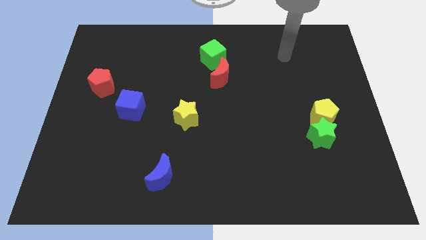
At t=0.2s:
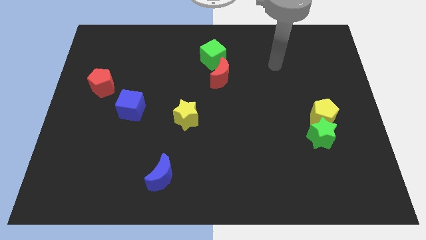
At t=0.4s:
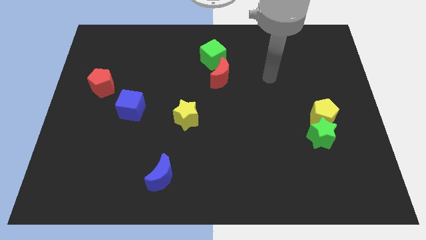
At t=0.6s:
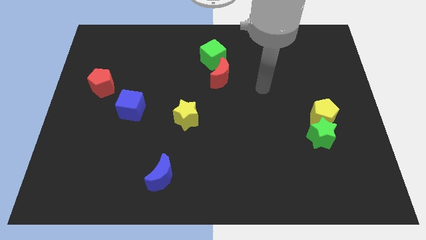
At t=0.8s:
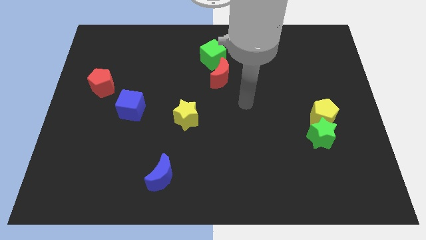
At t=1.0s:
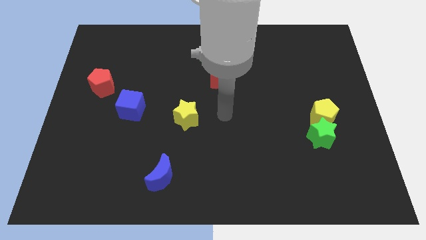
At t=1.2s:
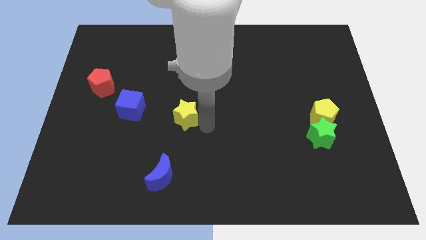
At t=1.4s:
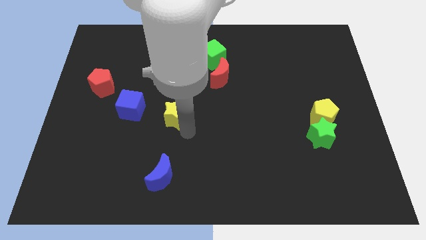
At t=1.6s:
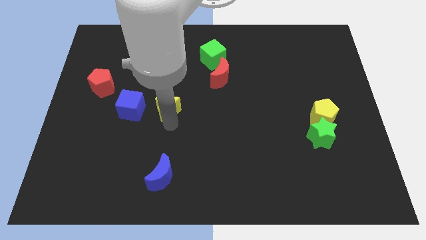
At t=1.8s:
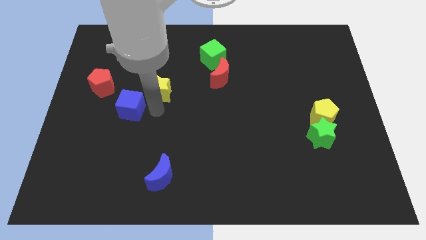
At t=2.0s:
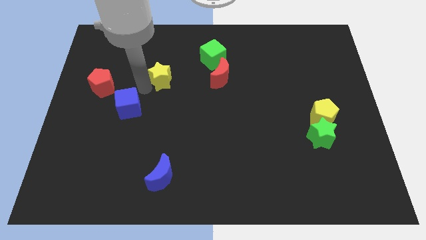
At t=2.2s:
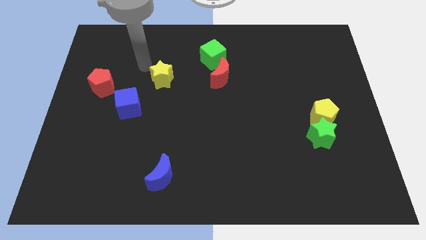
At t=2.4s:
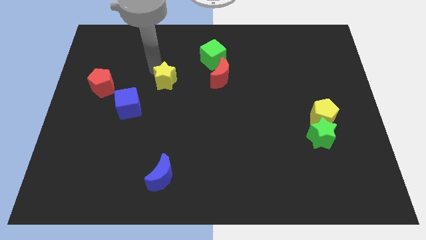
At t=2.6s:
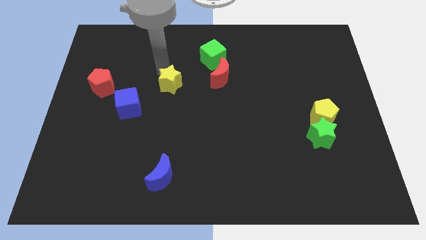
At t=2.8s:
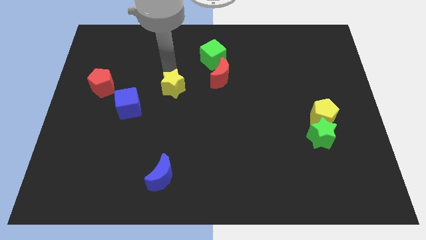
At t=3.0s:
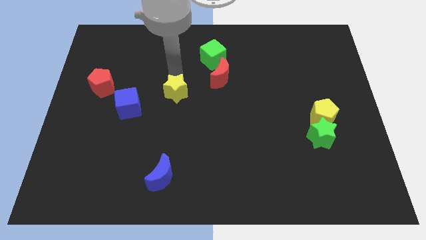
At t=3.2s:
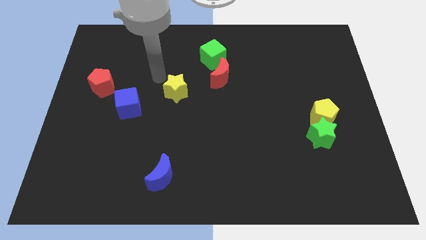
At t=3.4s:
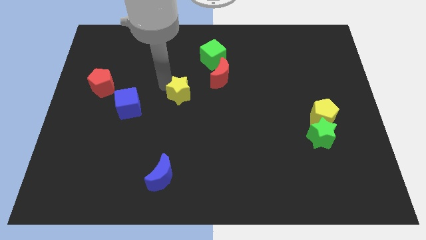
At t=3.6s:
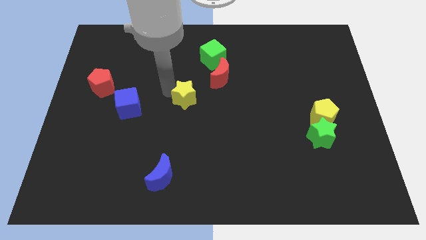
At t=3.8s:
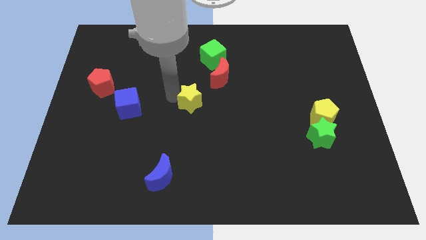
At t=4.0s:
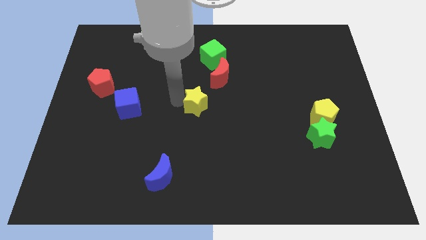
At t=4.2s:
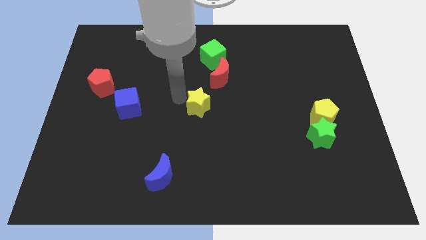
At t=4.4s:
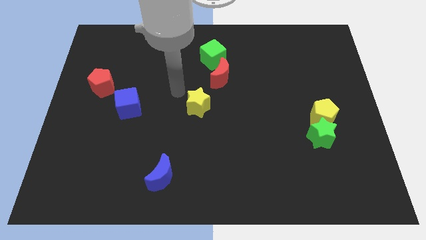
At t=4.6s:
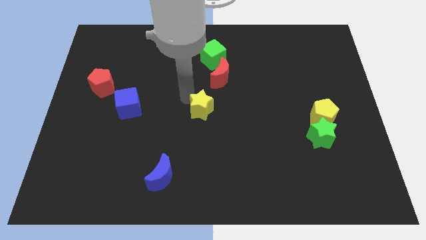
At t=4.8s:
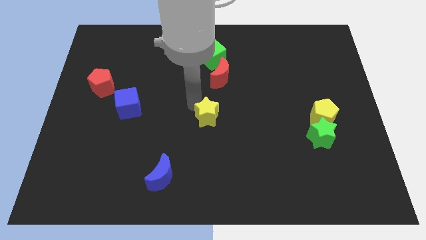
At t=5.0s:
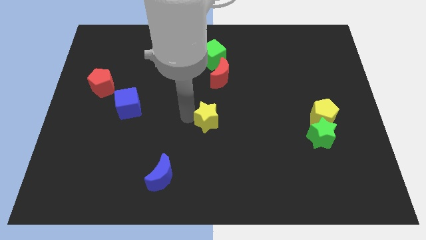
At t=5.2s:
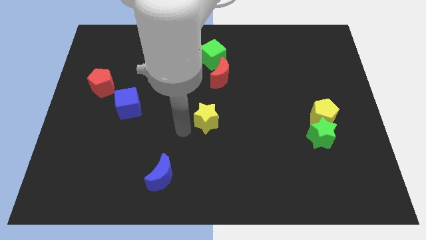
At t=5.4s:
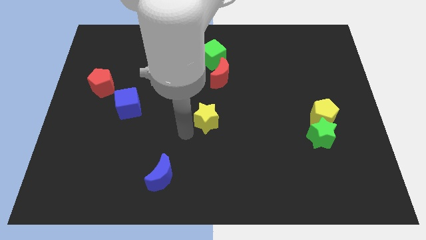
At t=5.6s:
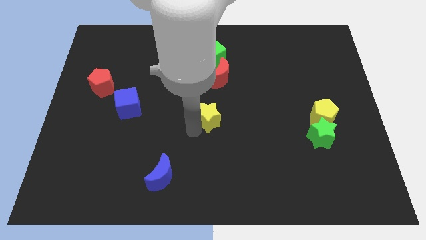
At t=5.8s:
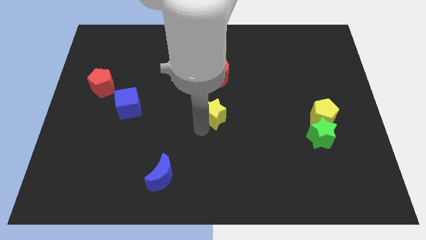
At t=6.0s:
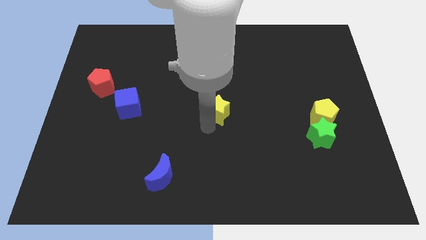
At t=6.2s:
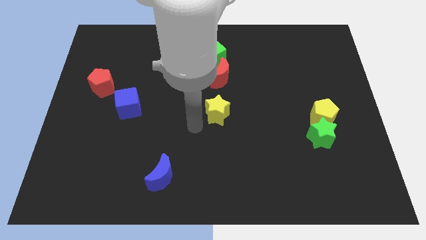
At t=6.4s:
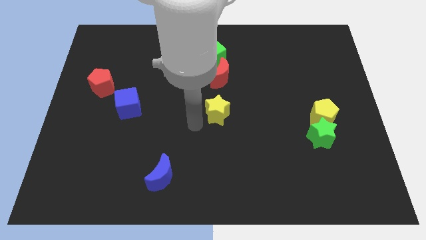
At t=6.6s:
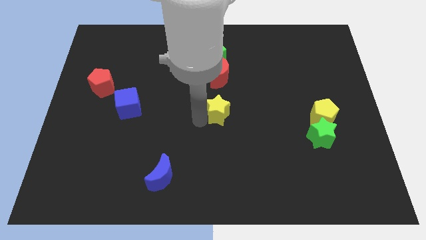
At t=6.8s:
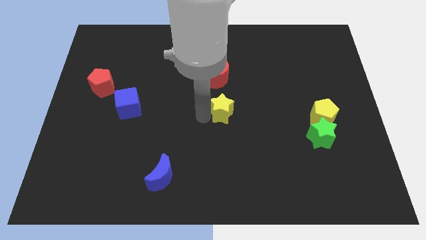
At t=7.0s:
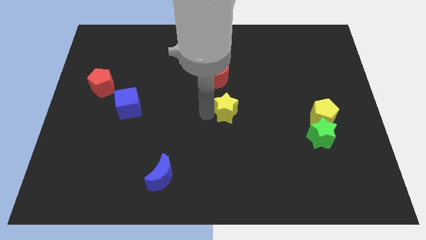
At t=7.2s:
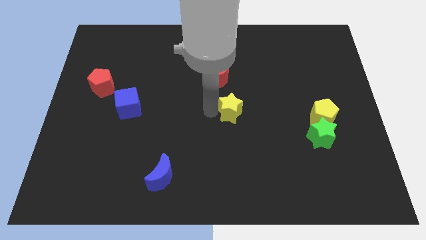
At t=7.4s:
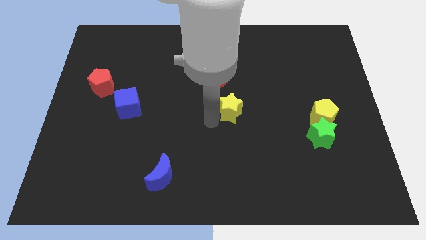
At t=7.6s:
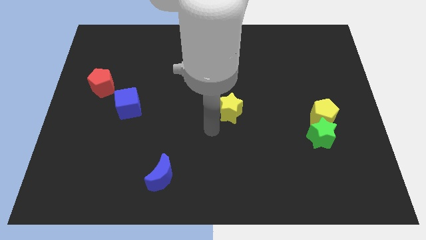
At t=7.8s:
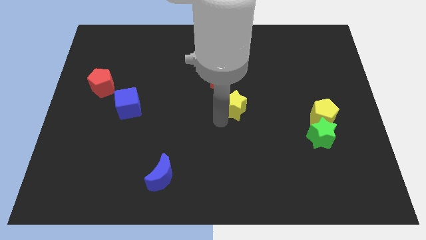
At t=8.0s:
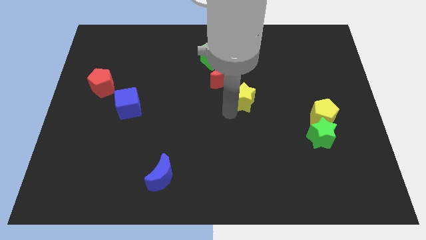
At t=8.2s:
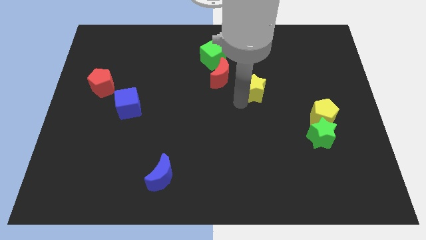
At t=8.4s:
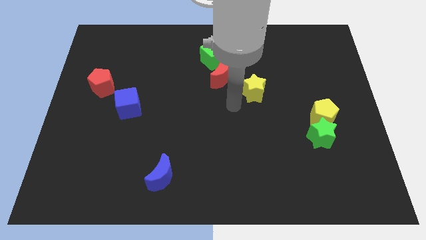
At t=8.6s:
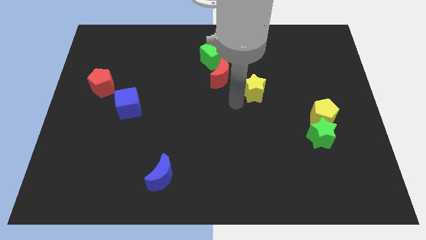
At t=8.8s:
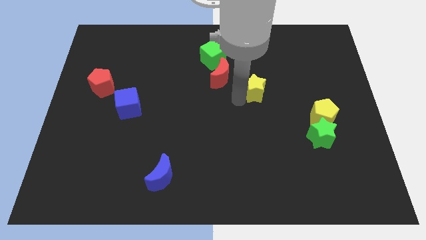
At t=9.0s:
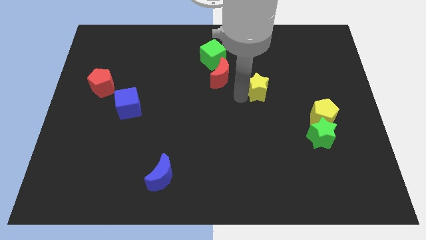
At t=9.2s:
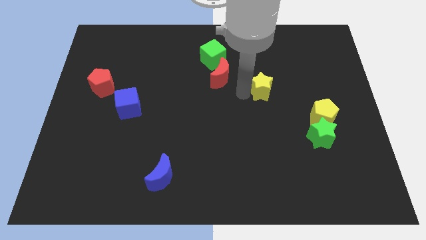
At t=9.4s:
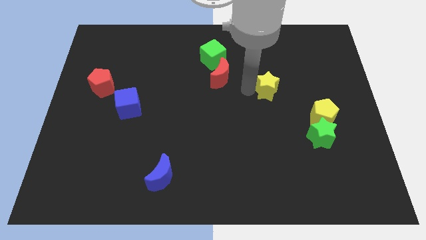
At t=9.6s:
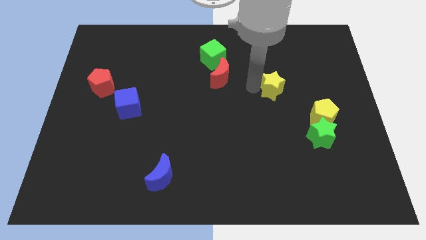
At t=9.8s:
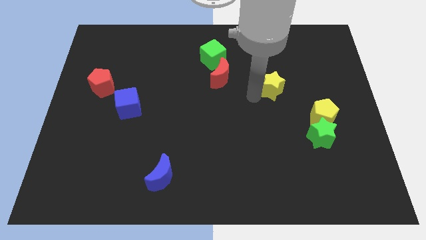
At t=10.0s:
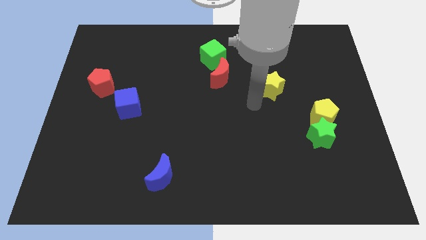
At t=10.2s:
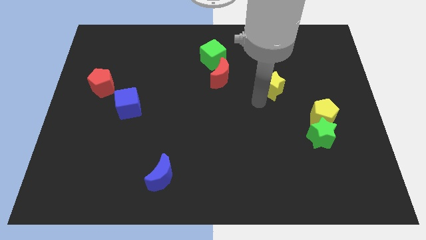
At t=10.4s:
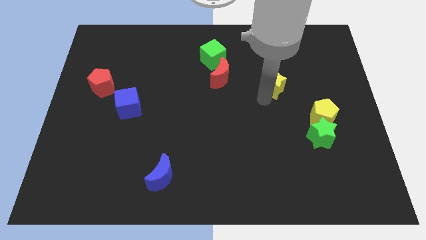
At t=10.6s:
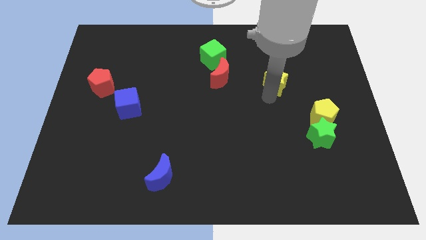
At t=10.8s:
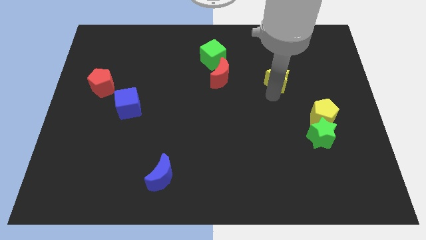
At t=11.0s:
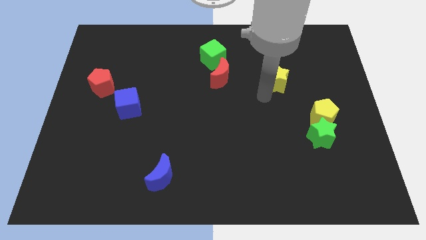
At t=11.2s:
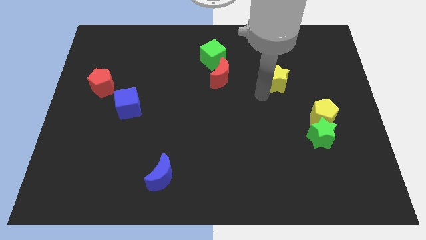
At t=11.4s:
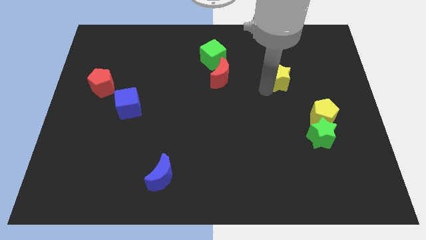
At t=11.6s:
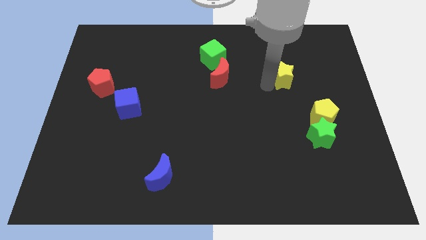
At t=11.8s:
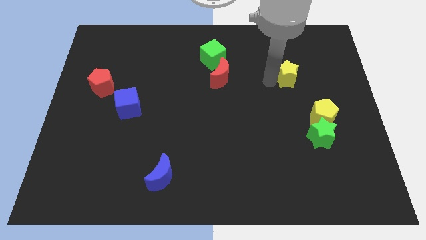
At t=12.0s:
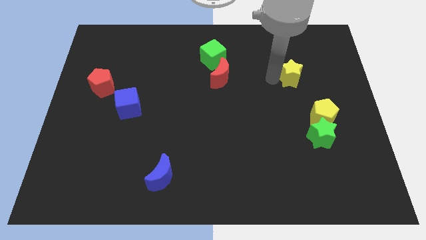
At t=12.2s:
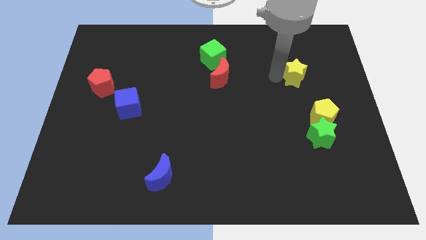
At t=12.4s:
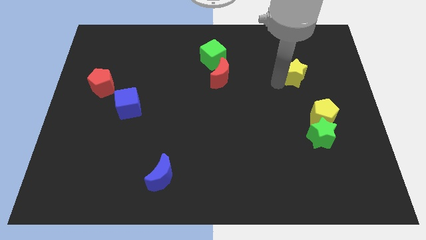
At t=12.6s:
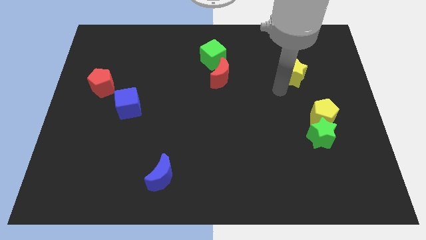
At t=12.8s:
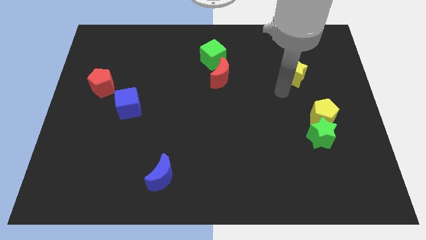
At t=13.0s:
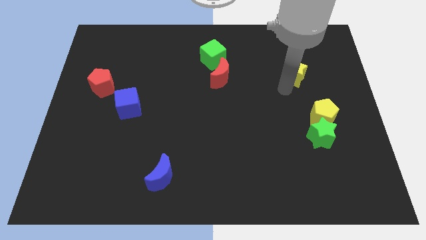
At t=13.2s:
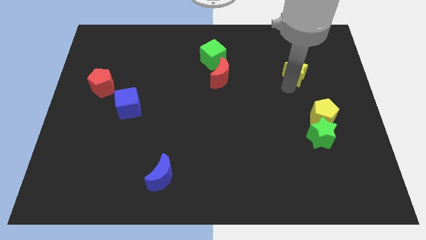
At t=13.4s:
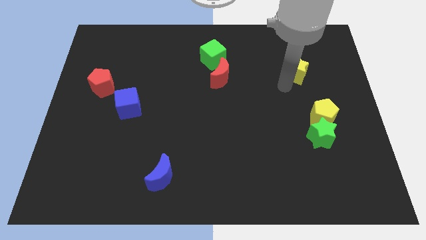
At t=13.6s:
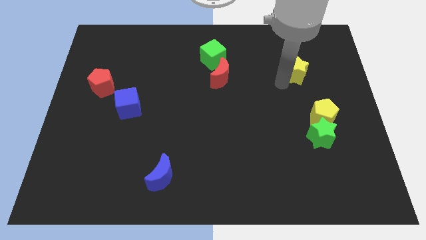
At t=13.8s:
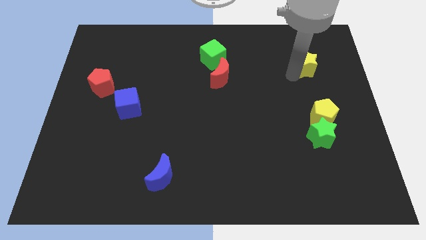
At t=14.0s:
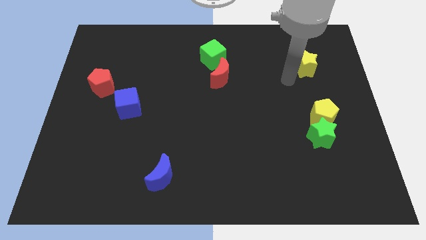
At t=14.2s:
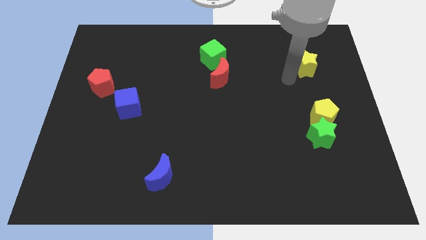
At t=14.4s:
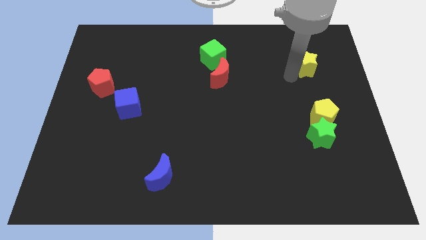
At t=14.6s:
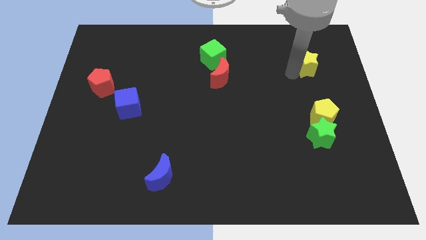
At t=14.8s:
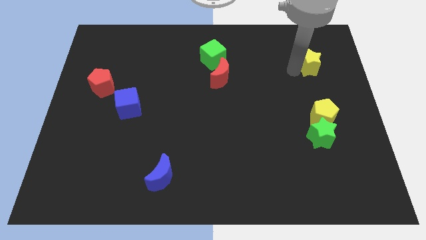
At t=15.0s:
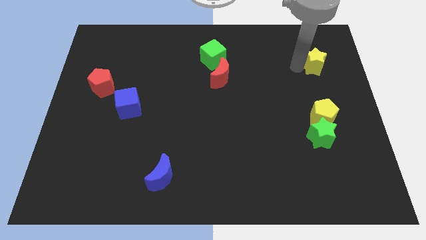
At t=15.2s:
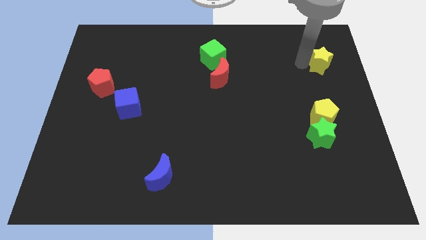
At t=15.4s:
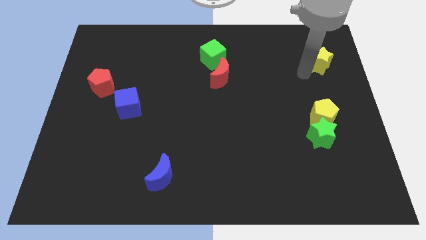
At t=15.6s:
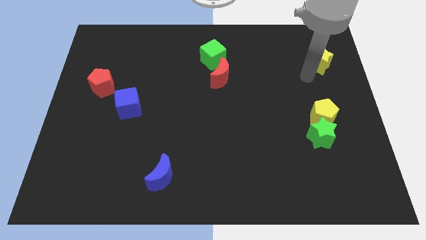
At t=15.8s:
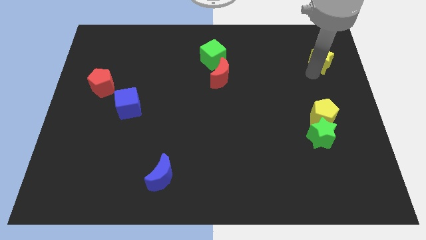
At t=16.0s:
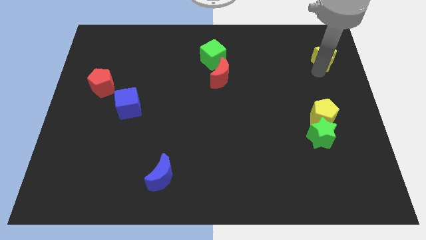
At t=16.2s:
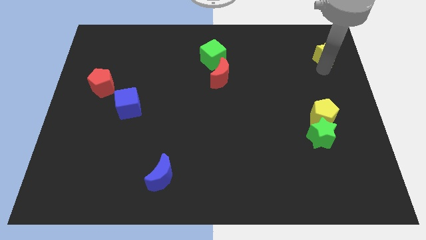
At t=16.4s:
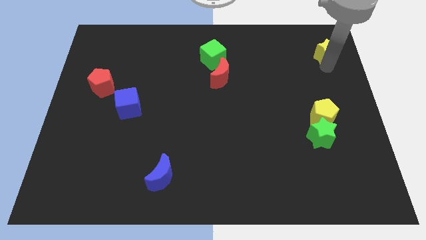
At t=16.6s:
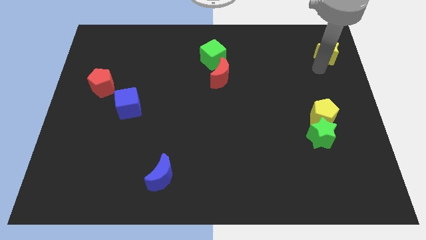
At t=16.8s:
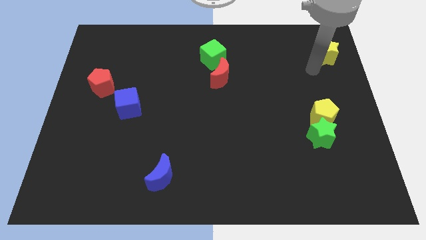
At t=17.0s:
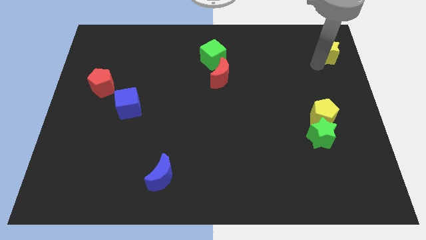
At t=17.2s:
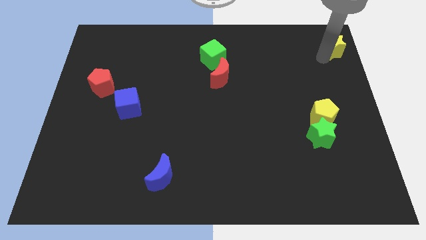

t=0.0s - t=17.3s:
put the yellow star to the top right of the board
